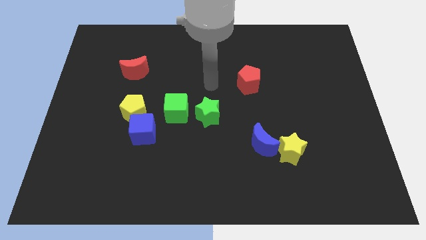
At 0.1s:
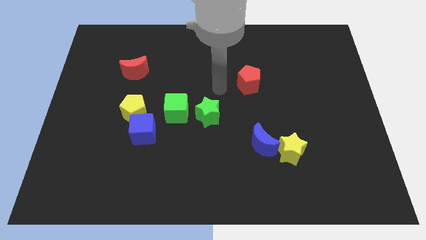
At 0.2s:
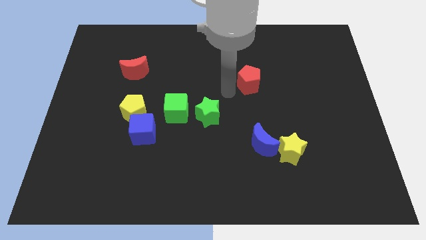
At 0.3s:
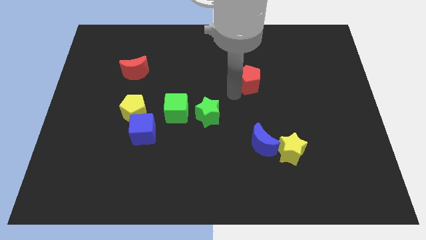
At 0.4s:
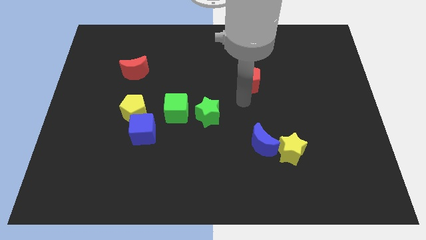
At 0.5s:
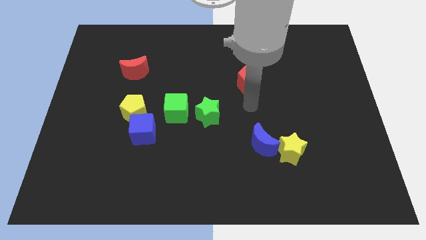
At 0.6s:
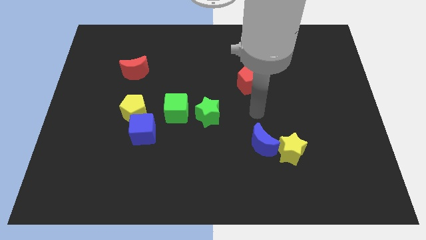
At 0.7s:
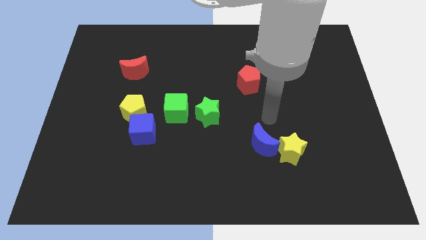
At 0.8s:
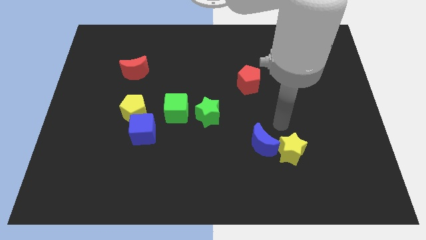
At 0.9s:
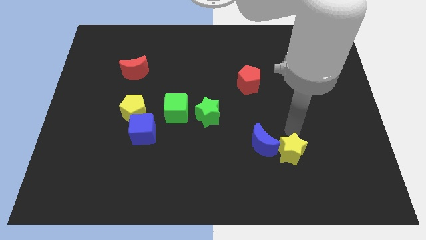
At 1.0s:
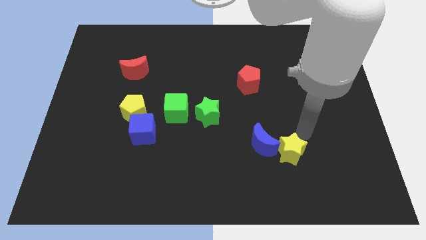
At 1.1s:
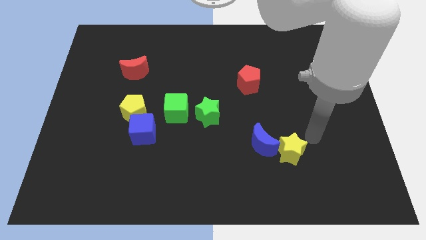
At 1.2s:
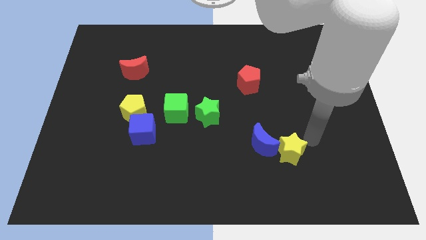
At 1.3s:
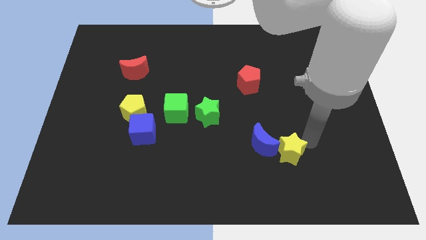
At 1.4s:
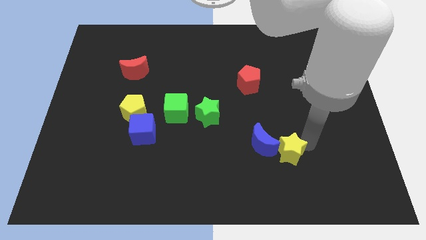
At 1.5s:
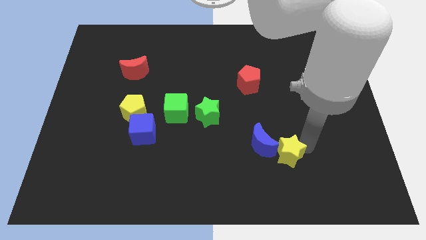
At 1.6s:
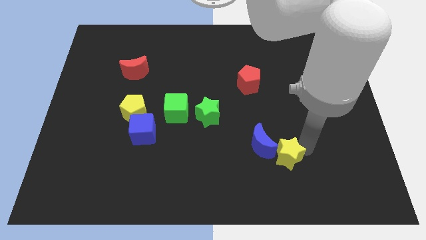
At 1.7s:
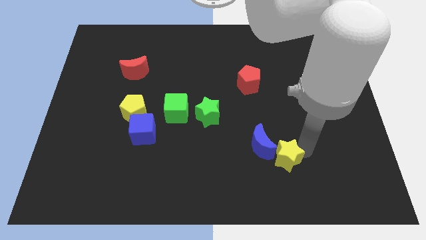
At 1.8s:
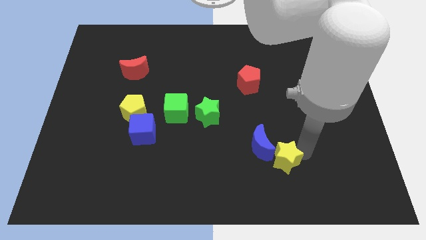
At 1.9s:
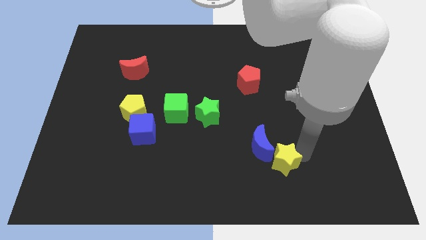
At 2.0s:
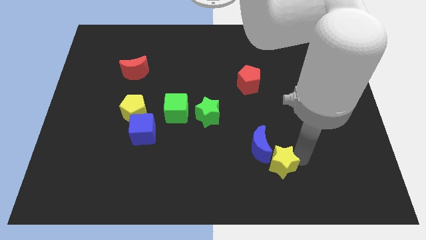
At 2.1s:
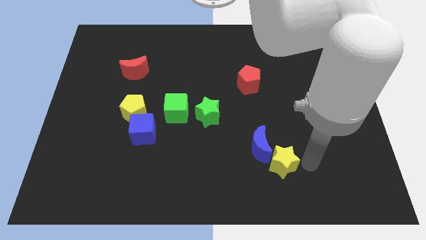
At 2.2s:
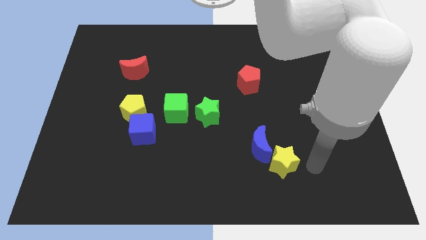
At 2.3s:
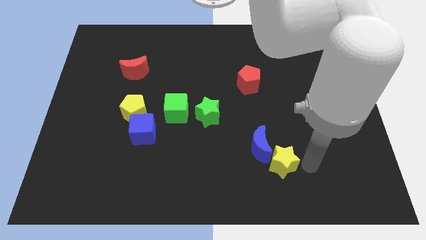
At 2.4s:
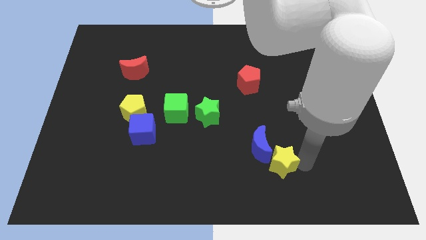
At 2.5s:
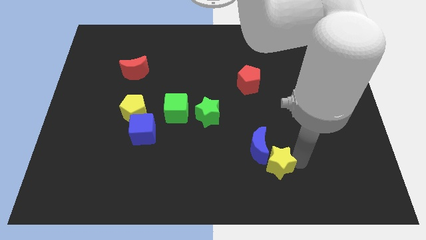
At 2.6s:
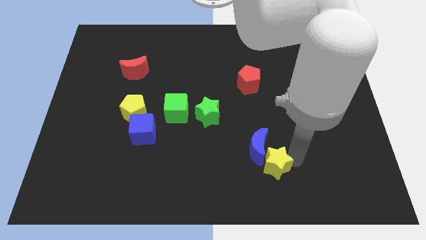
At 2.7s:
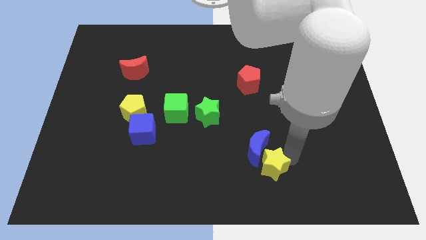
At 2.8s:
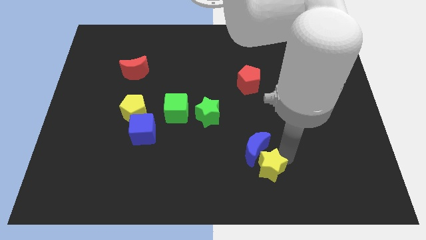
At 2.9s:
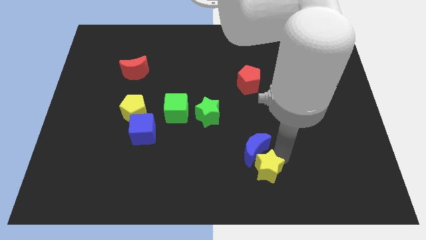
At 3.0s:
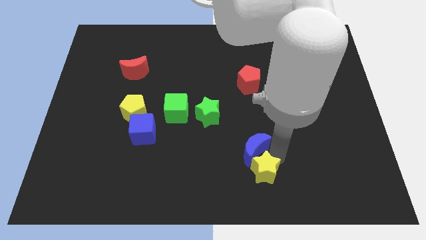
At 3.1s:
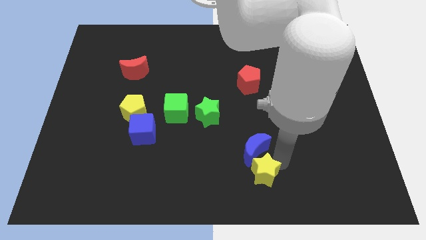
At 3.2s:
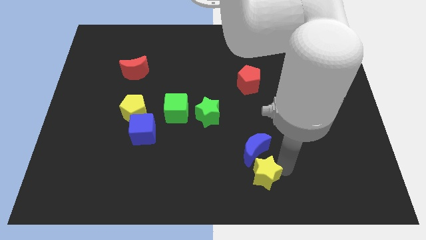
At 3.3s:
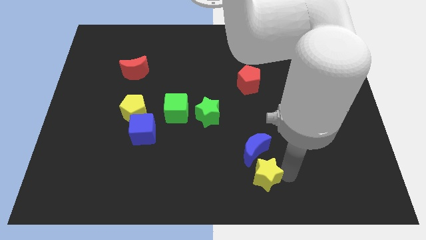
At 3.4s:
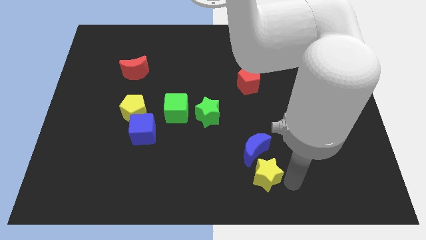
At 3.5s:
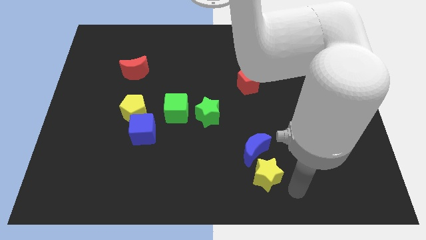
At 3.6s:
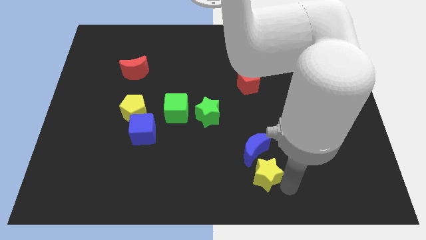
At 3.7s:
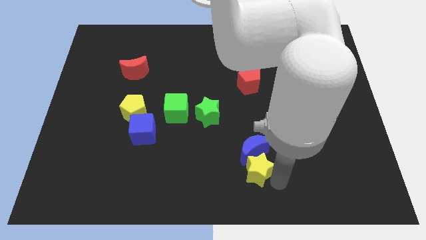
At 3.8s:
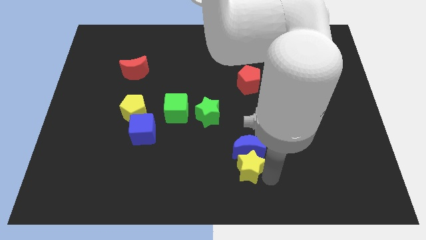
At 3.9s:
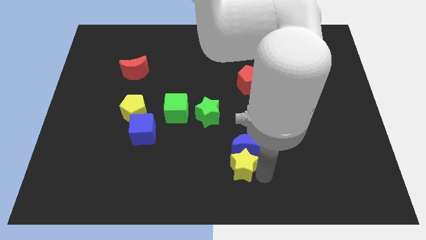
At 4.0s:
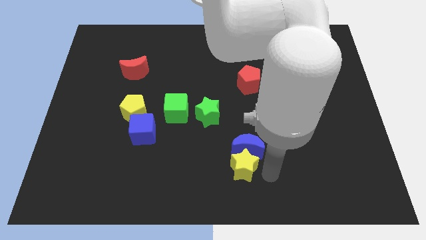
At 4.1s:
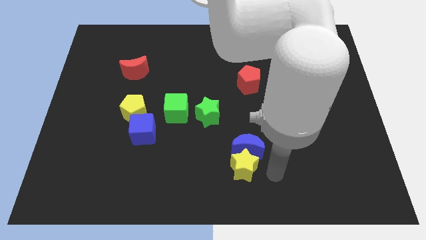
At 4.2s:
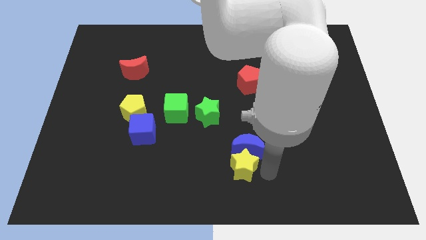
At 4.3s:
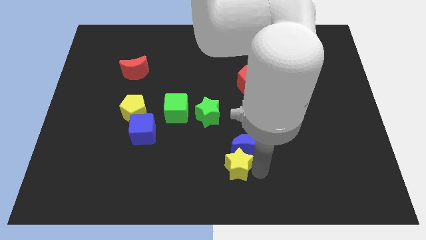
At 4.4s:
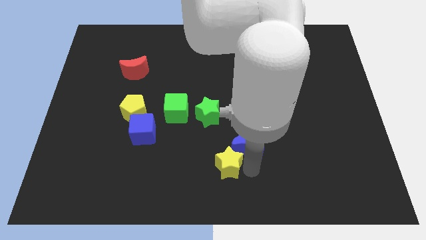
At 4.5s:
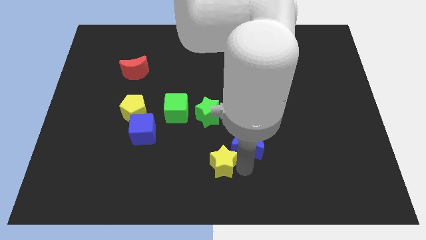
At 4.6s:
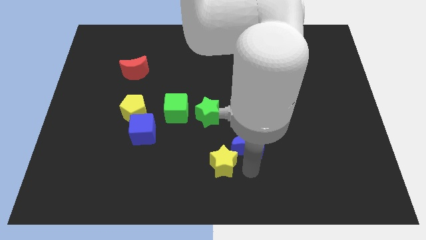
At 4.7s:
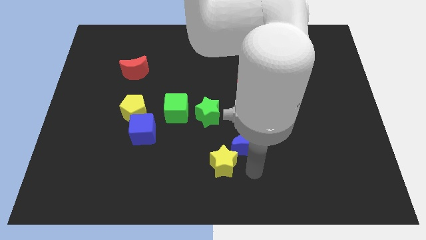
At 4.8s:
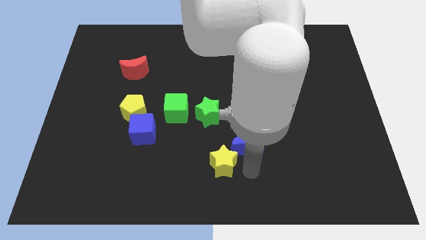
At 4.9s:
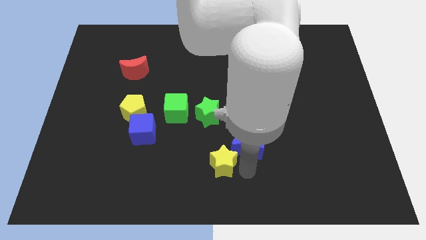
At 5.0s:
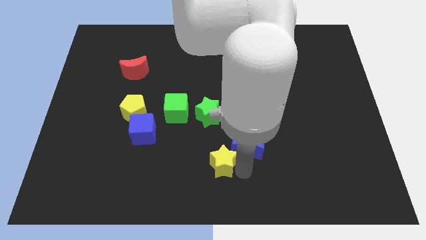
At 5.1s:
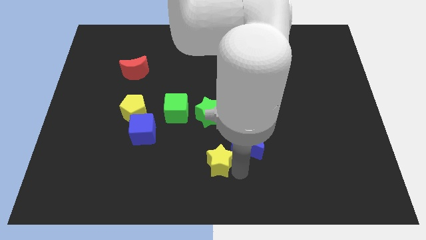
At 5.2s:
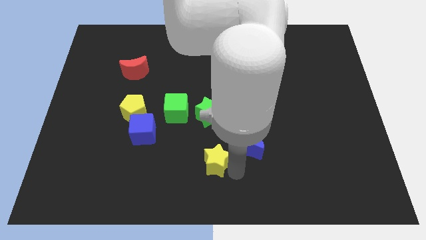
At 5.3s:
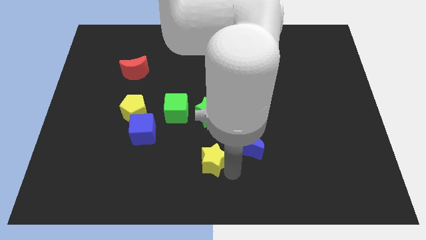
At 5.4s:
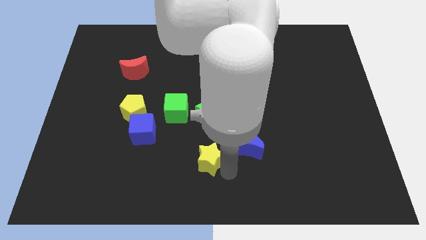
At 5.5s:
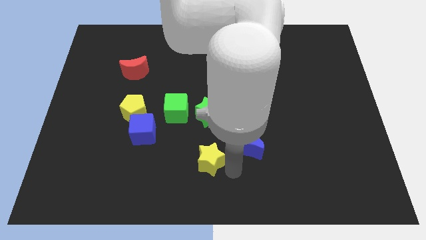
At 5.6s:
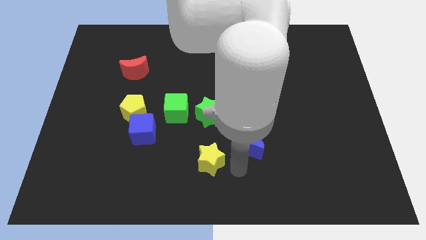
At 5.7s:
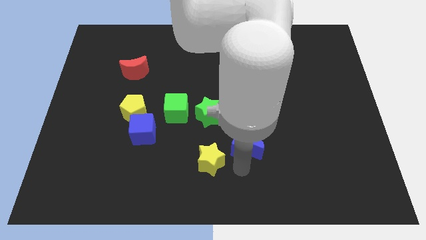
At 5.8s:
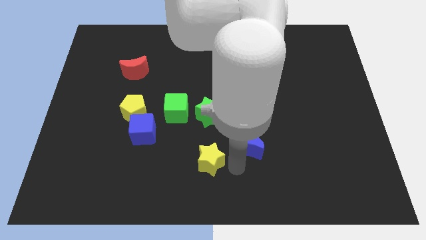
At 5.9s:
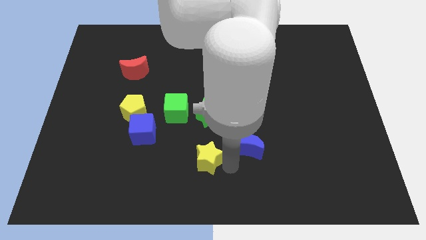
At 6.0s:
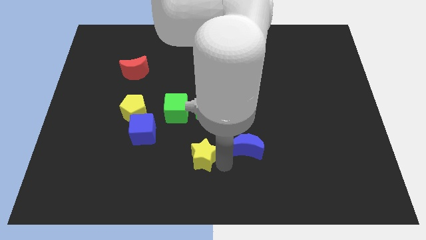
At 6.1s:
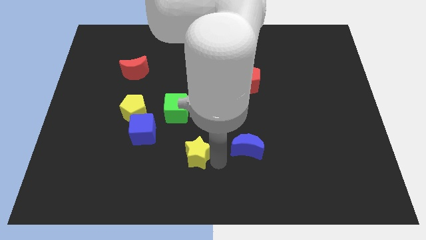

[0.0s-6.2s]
move the yellow star to the left

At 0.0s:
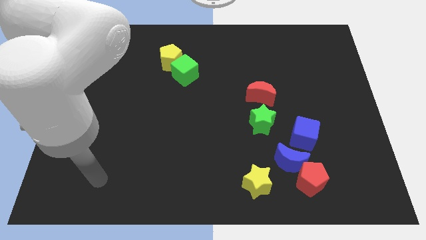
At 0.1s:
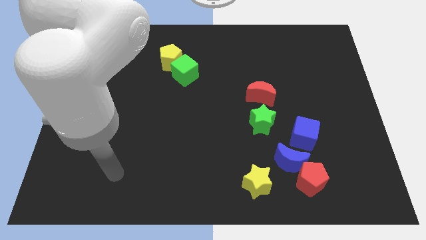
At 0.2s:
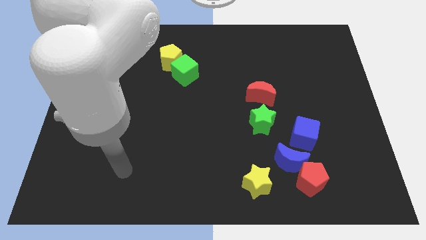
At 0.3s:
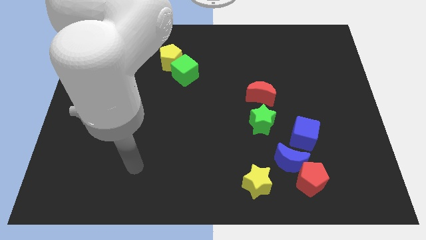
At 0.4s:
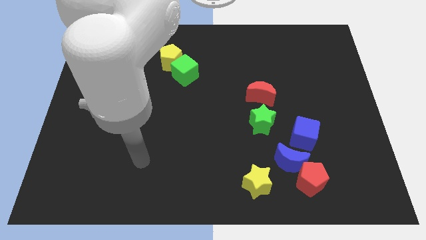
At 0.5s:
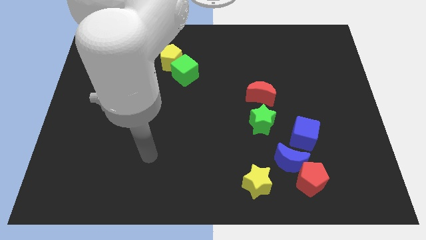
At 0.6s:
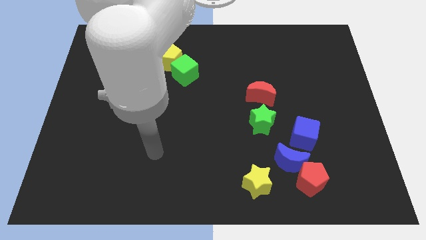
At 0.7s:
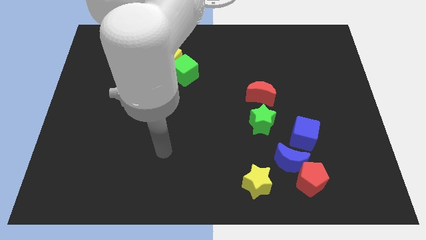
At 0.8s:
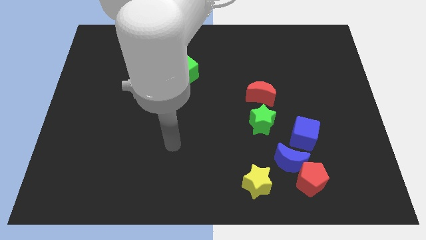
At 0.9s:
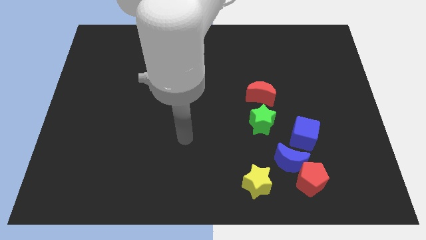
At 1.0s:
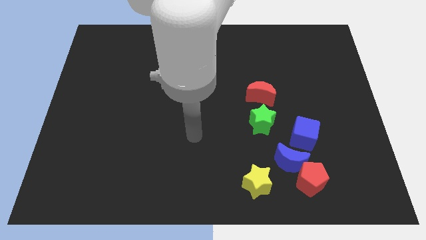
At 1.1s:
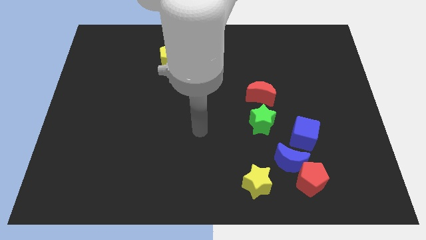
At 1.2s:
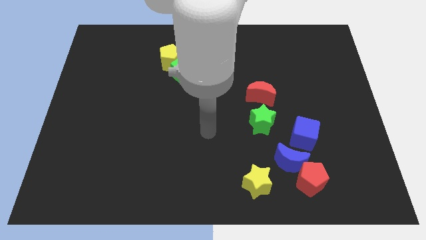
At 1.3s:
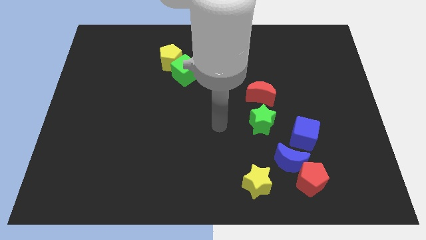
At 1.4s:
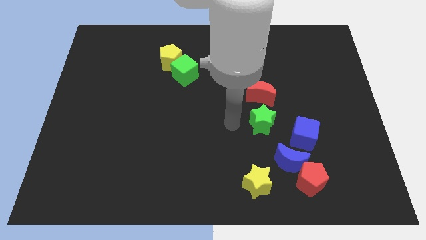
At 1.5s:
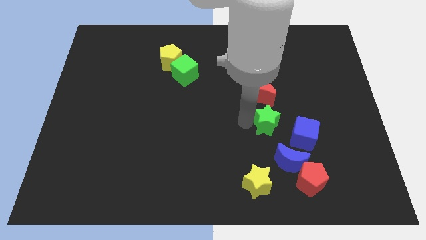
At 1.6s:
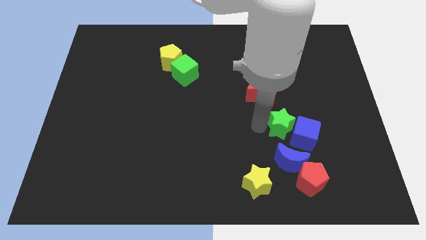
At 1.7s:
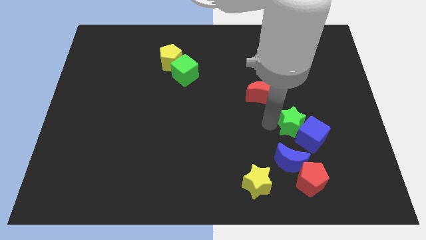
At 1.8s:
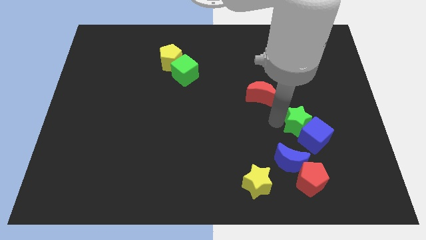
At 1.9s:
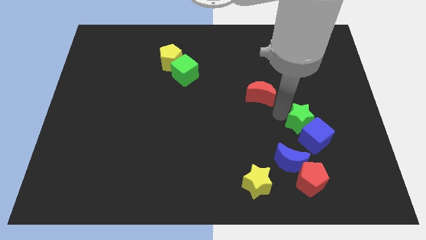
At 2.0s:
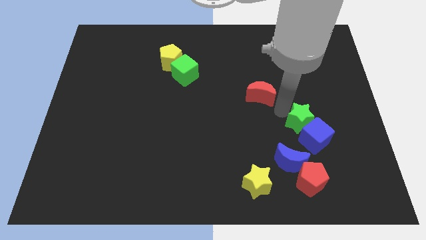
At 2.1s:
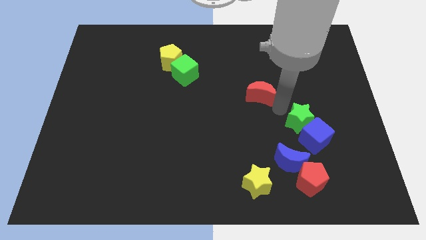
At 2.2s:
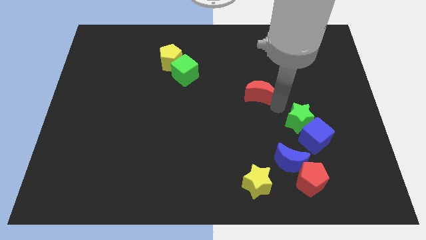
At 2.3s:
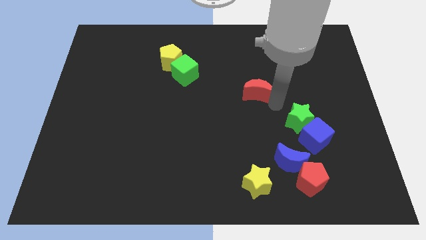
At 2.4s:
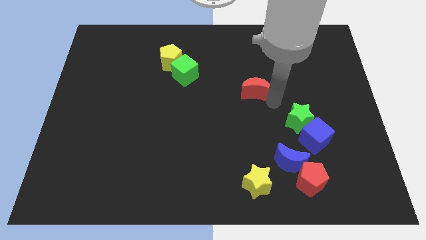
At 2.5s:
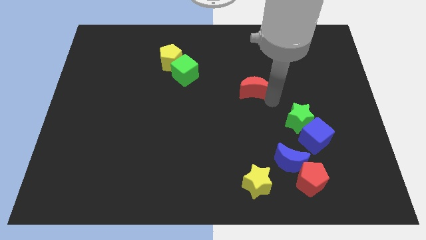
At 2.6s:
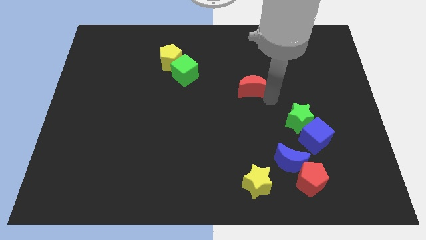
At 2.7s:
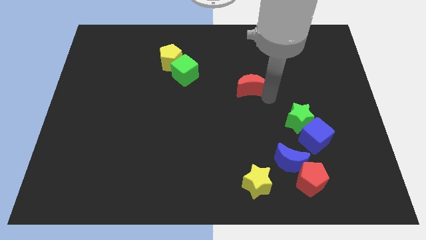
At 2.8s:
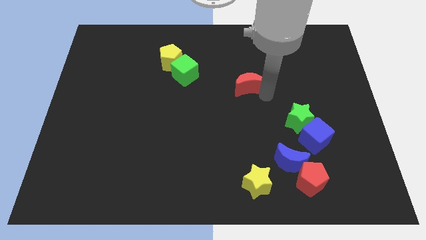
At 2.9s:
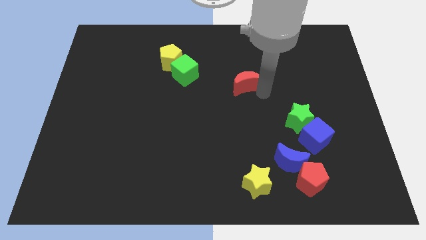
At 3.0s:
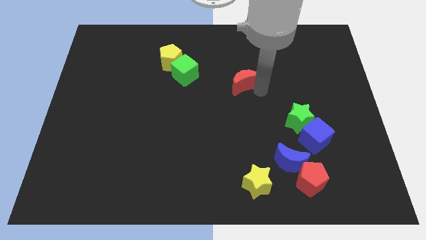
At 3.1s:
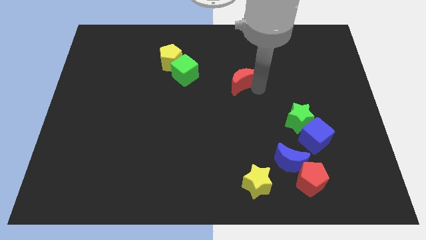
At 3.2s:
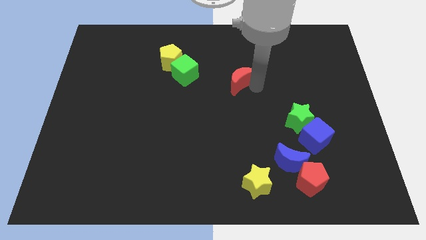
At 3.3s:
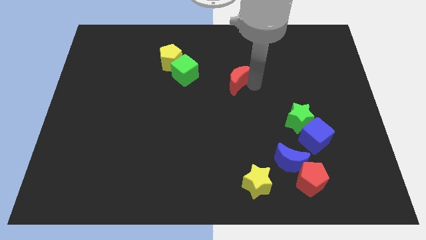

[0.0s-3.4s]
move the red moon upwards and to the left diagonally slightly
